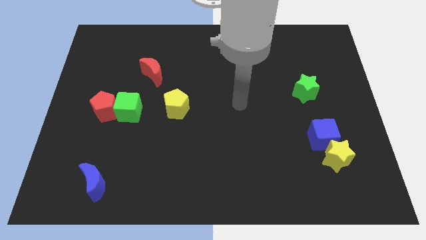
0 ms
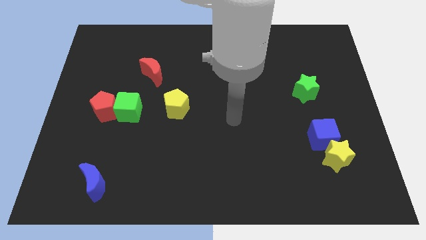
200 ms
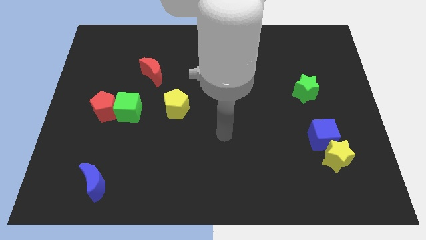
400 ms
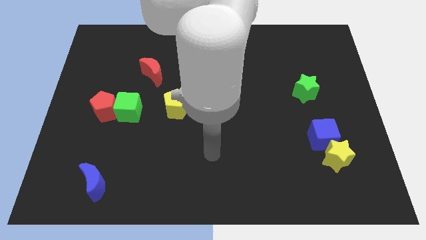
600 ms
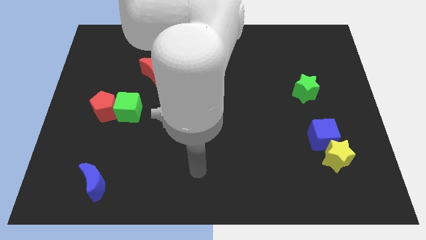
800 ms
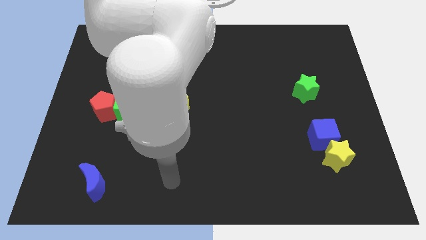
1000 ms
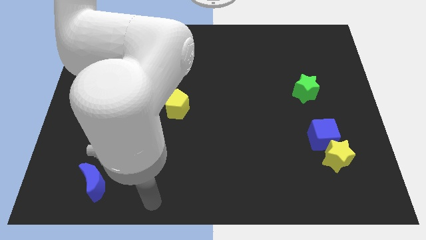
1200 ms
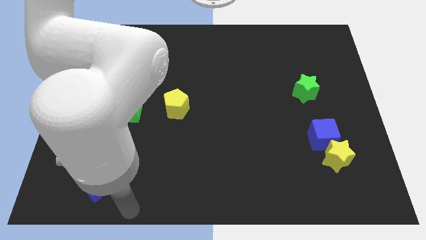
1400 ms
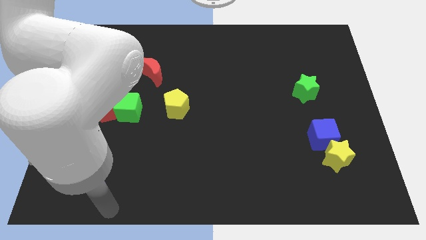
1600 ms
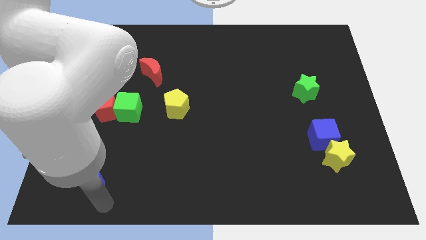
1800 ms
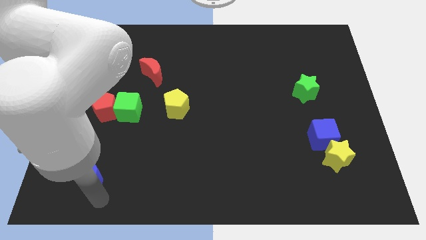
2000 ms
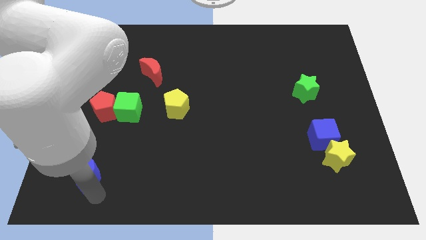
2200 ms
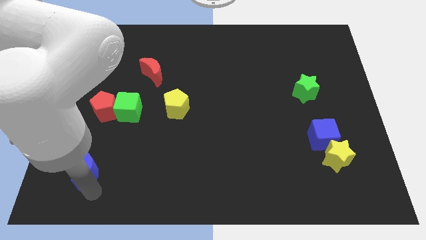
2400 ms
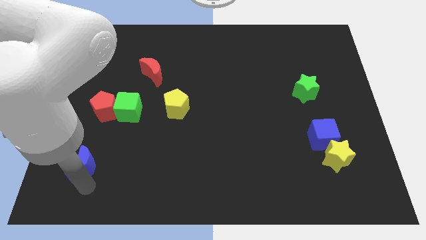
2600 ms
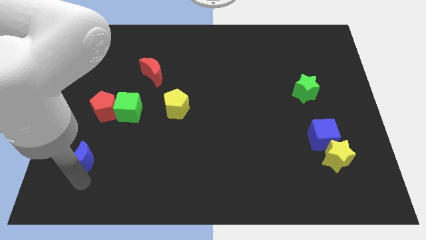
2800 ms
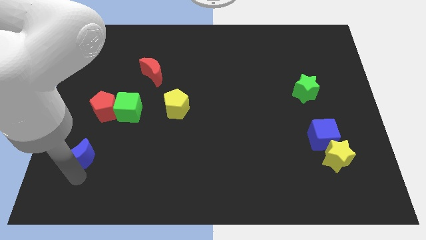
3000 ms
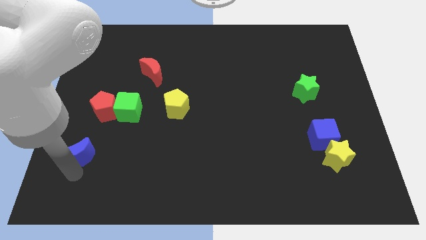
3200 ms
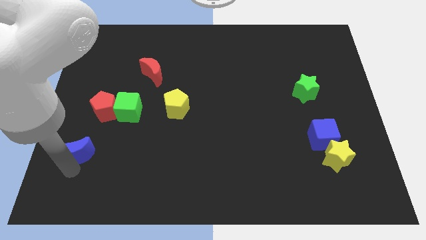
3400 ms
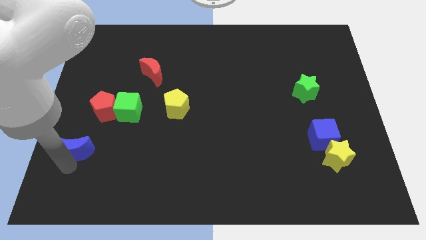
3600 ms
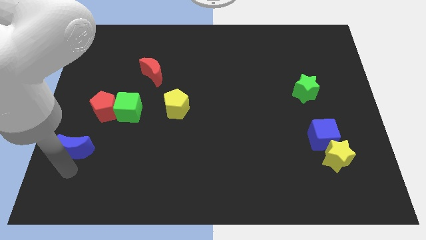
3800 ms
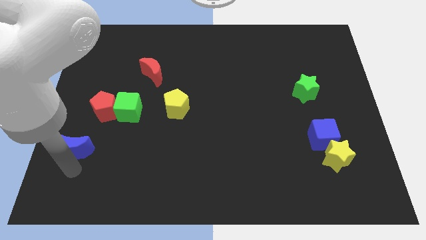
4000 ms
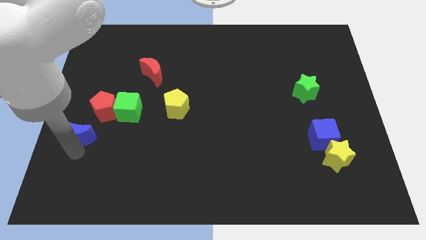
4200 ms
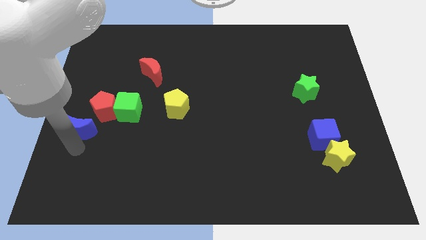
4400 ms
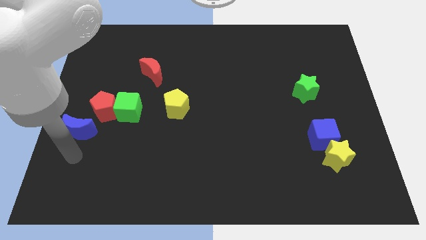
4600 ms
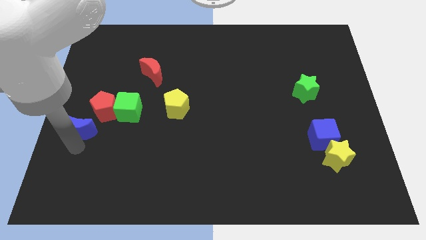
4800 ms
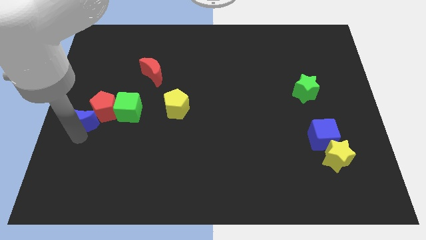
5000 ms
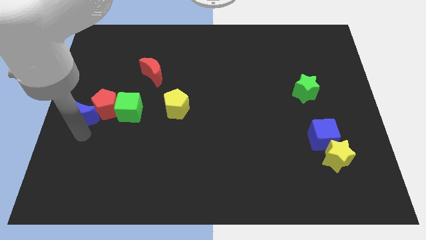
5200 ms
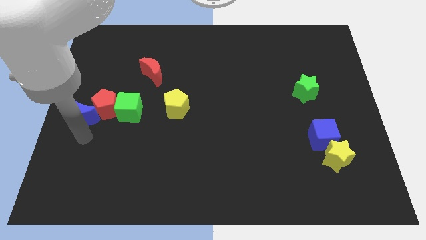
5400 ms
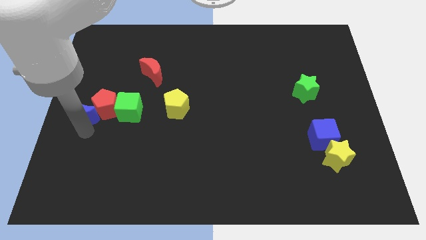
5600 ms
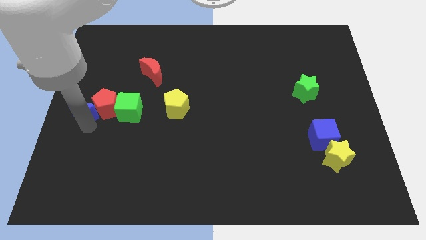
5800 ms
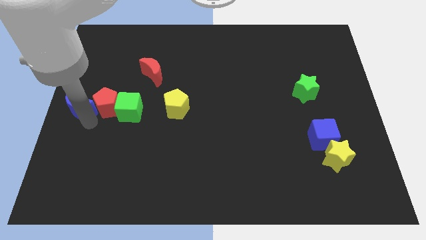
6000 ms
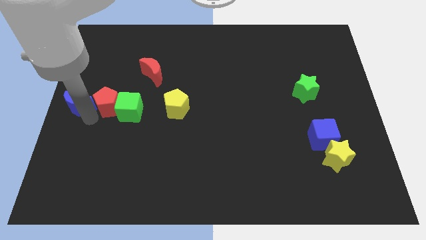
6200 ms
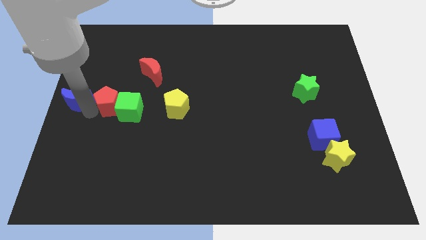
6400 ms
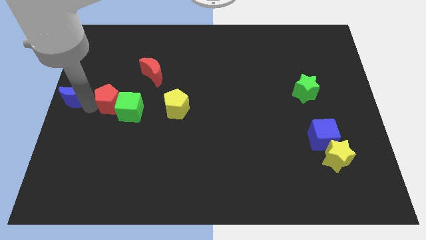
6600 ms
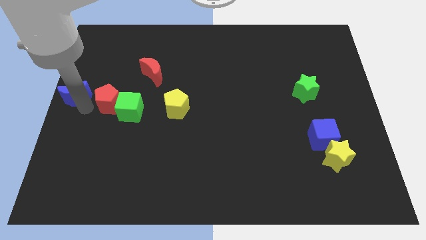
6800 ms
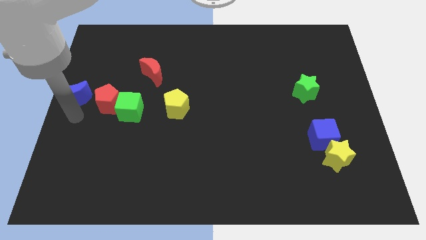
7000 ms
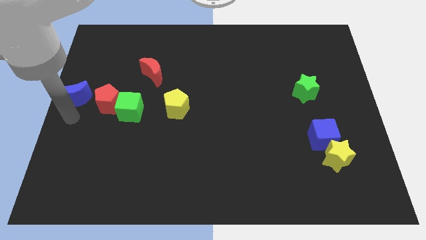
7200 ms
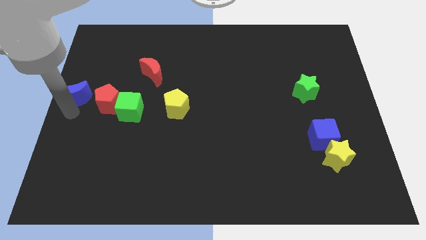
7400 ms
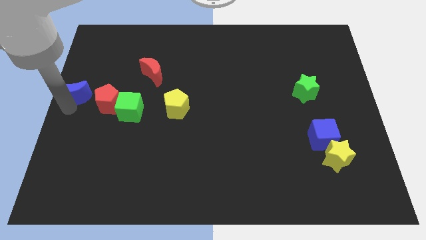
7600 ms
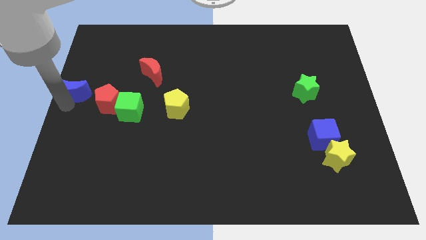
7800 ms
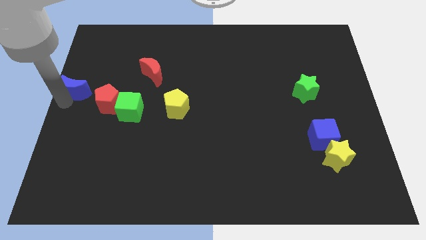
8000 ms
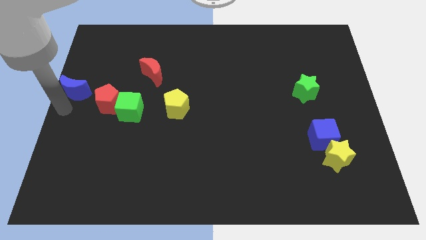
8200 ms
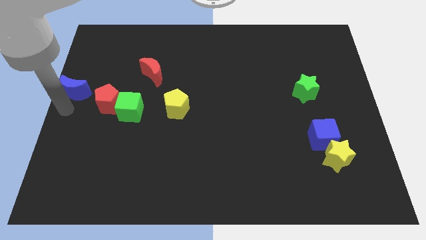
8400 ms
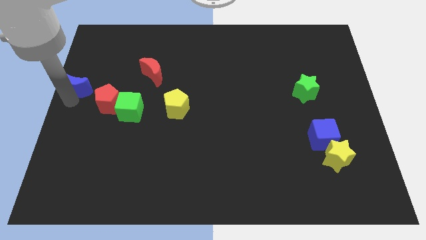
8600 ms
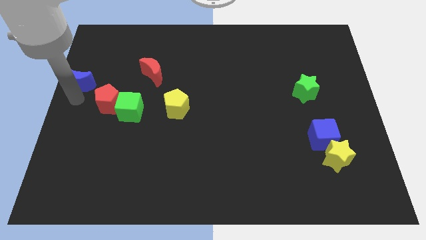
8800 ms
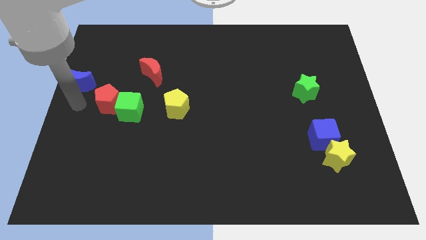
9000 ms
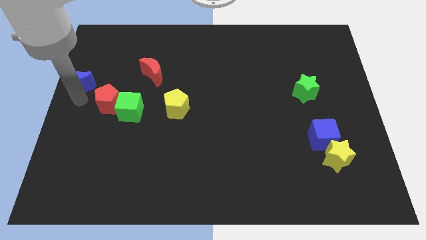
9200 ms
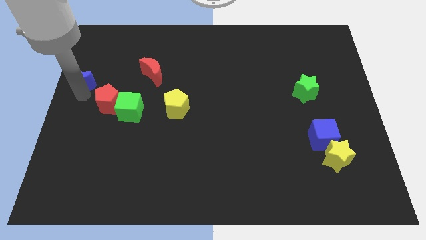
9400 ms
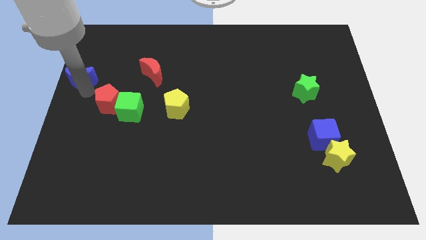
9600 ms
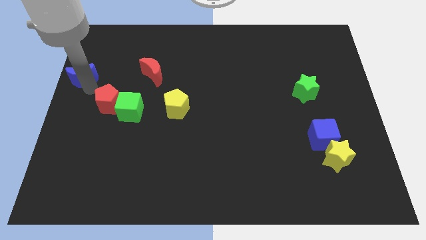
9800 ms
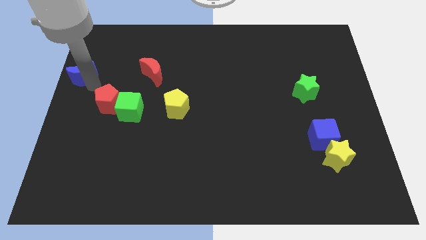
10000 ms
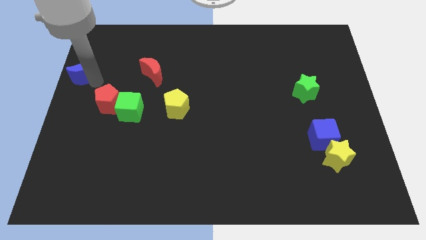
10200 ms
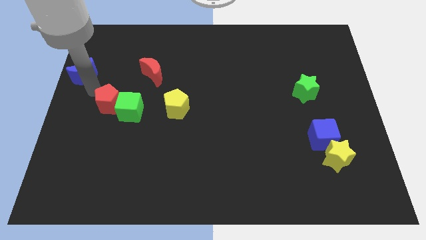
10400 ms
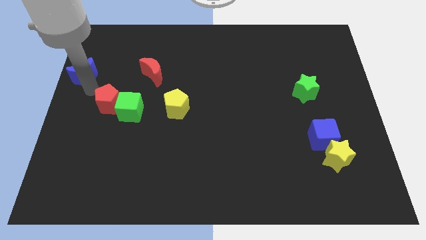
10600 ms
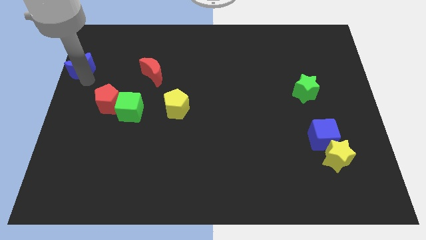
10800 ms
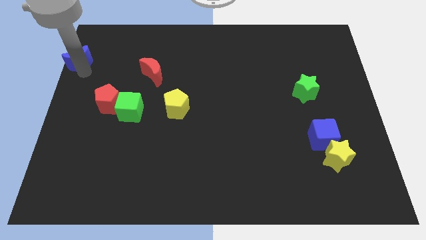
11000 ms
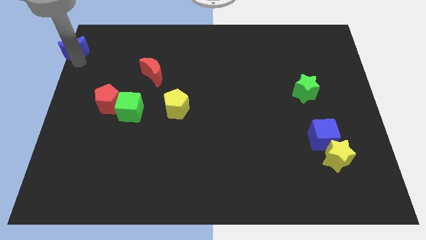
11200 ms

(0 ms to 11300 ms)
move the blue moon to the top left

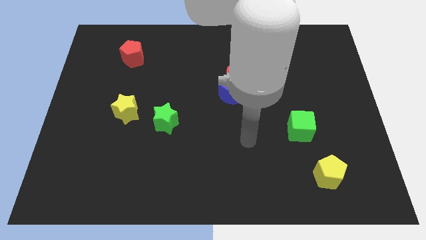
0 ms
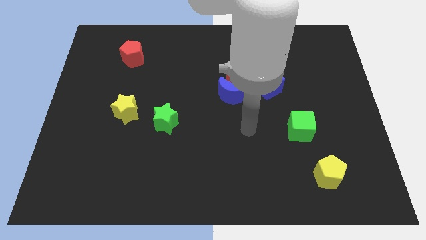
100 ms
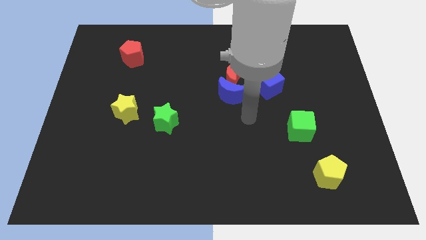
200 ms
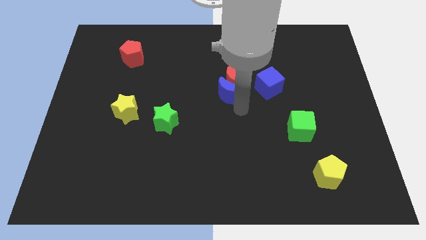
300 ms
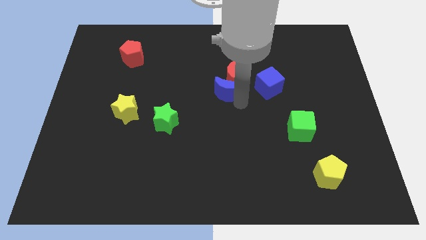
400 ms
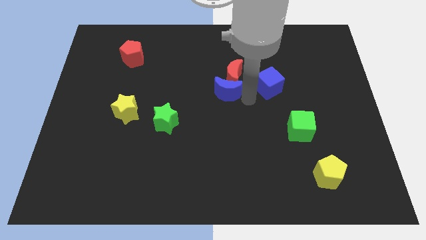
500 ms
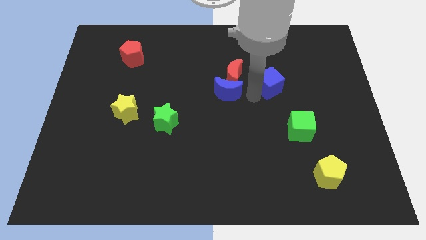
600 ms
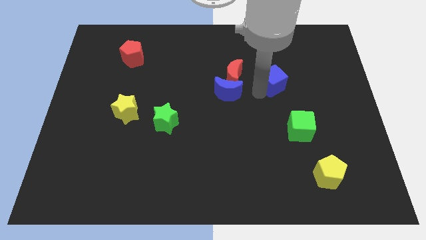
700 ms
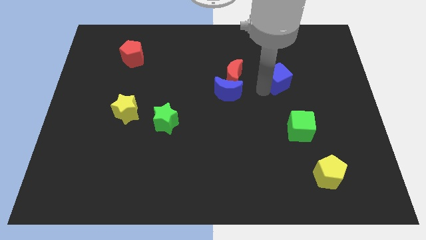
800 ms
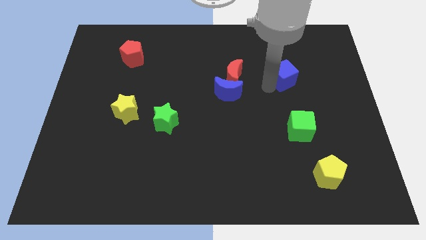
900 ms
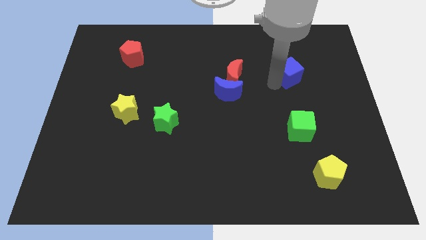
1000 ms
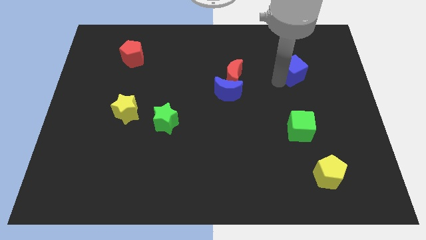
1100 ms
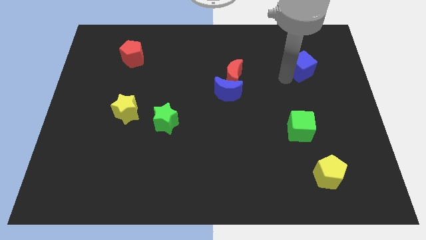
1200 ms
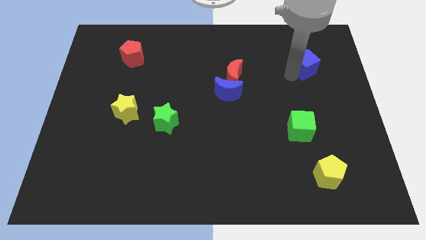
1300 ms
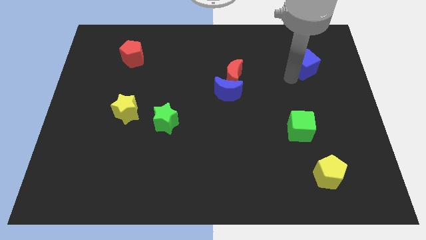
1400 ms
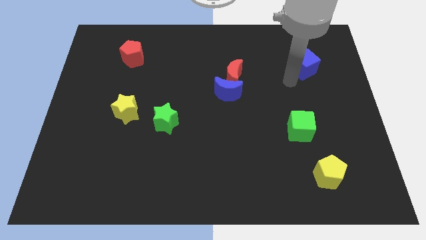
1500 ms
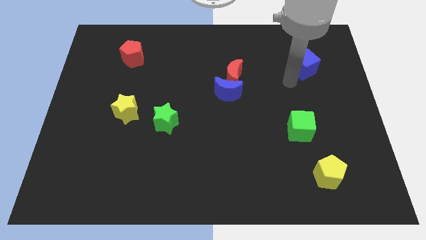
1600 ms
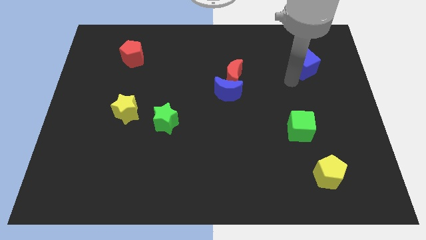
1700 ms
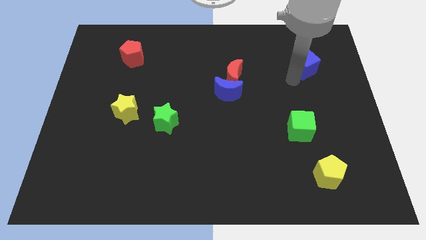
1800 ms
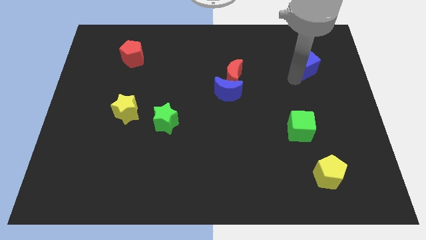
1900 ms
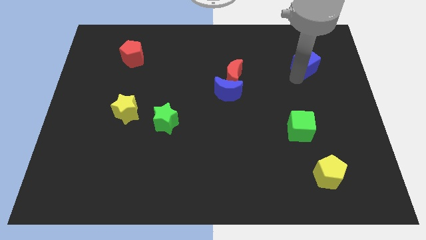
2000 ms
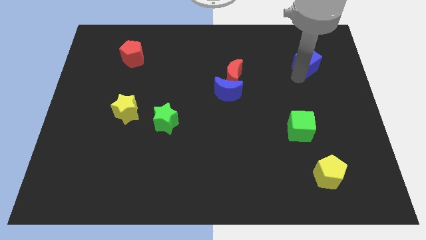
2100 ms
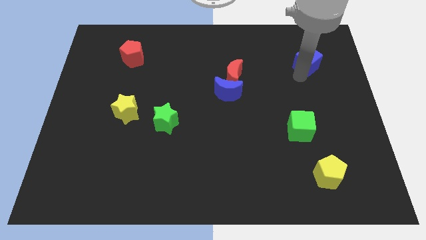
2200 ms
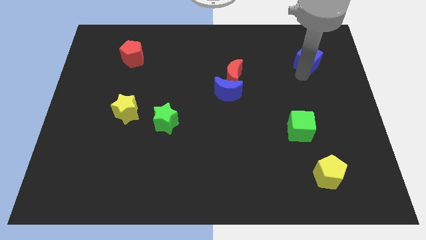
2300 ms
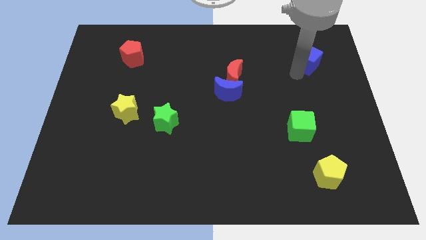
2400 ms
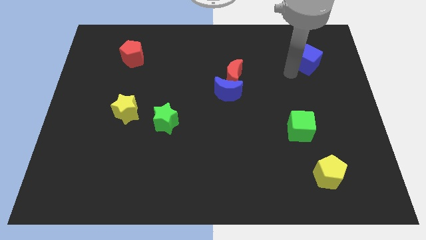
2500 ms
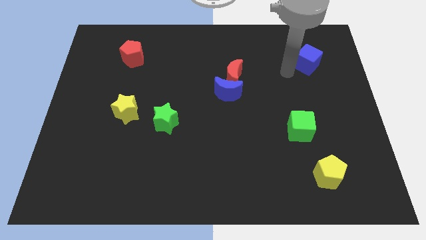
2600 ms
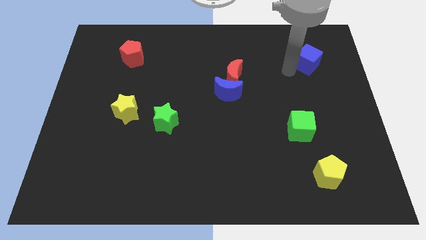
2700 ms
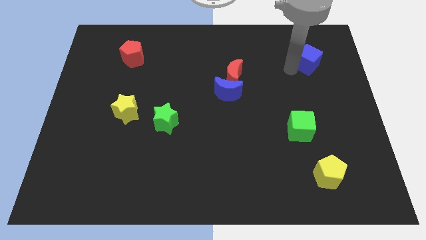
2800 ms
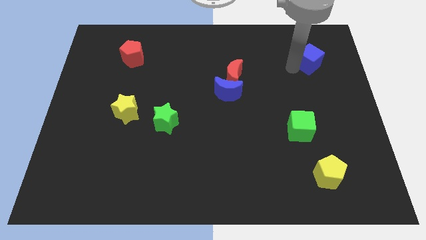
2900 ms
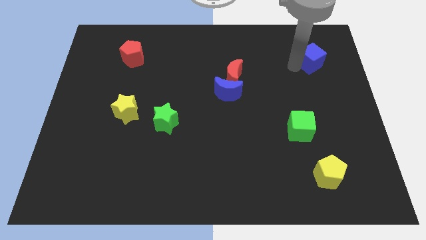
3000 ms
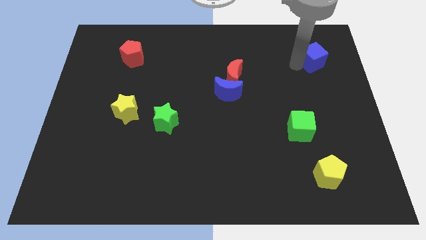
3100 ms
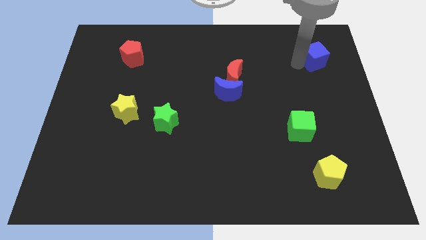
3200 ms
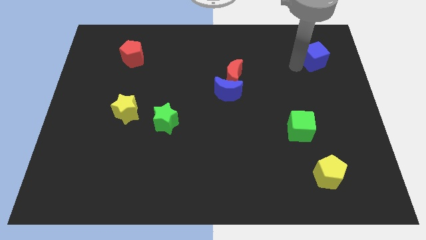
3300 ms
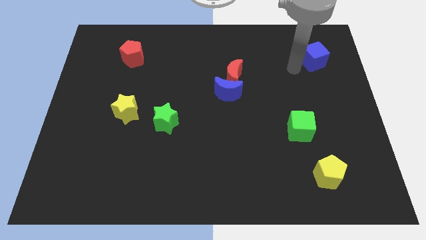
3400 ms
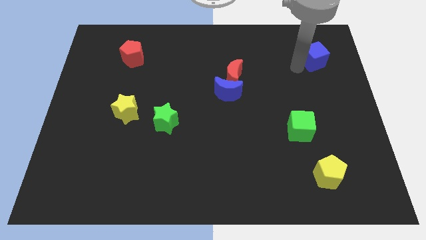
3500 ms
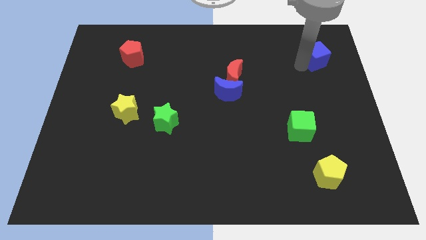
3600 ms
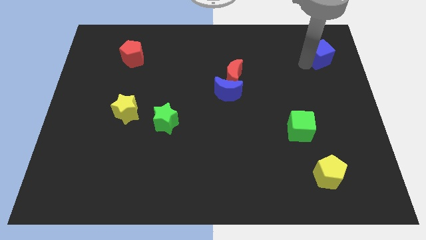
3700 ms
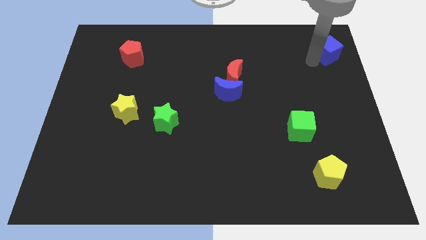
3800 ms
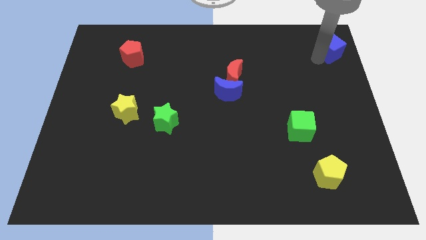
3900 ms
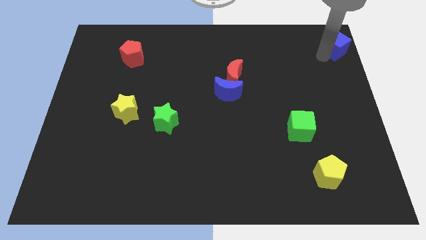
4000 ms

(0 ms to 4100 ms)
put the blue cube to the upper right corner
